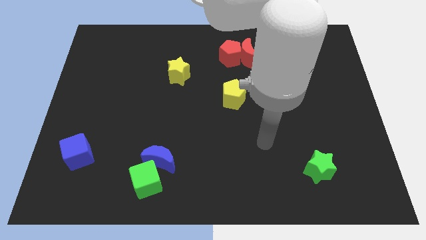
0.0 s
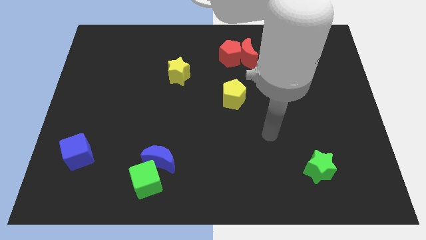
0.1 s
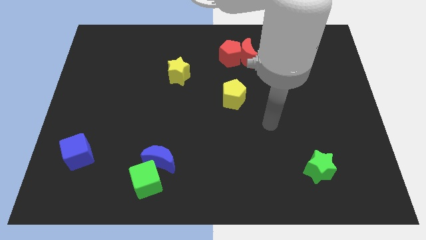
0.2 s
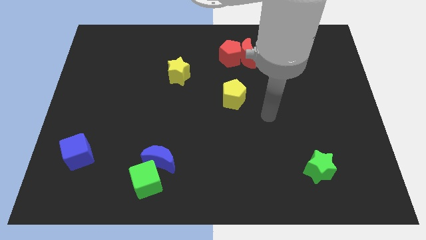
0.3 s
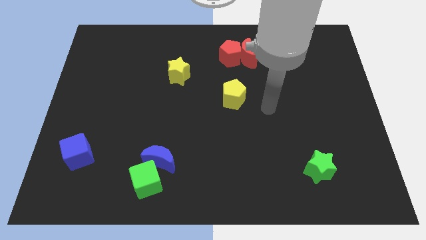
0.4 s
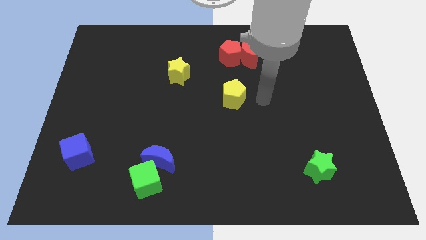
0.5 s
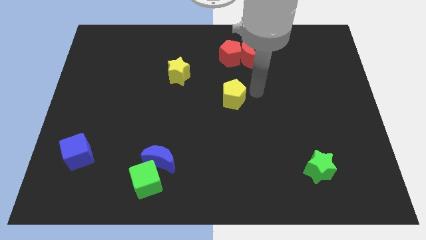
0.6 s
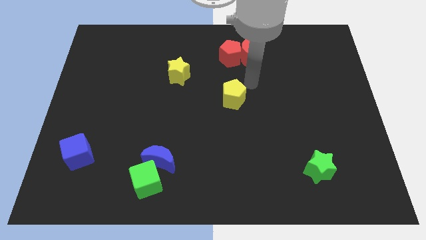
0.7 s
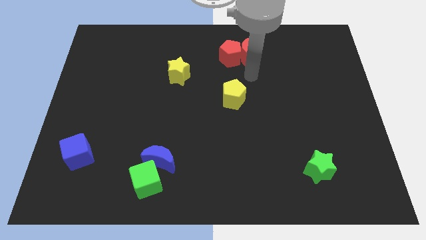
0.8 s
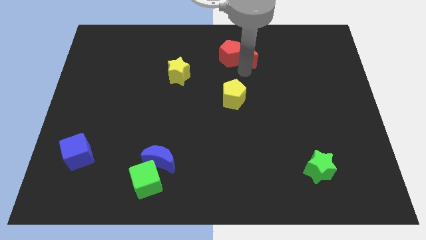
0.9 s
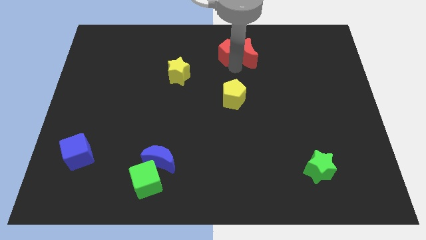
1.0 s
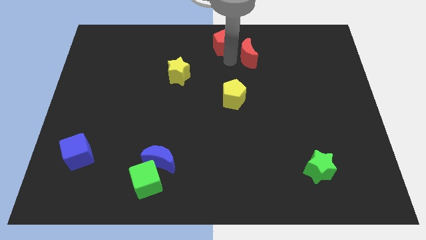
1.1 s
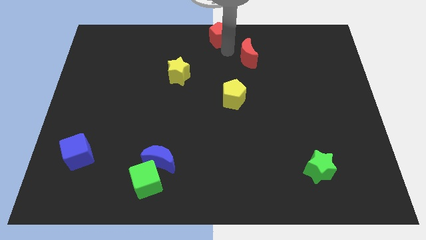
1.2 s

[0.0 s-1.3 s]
pull the red moon apart from the red pentagon

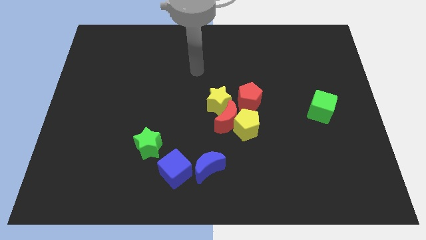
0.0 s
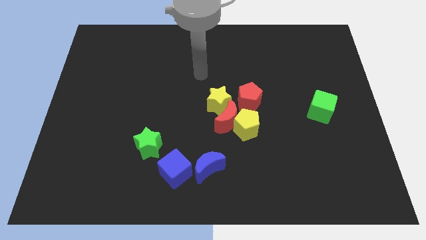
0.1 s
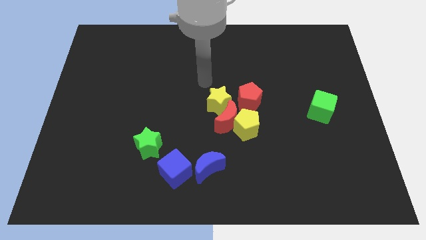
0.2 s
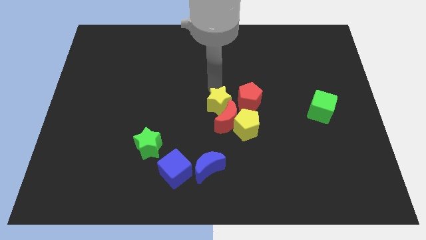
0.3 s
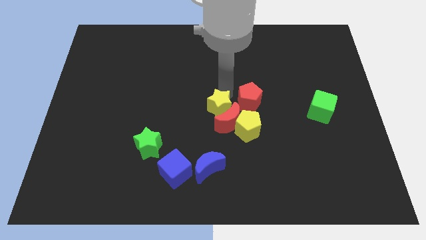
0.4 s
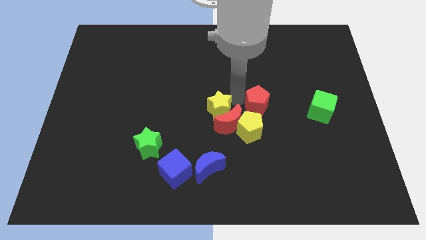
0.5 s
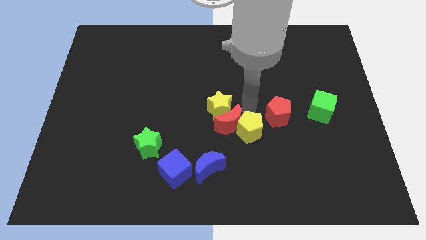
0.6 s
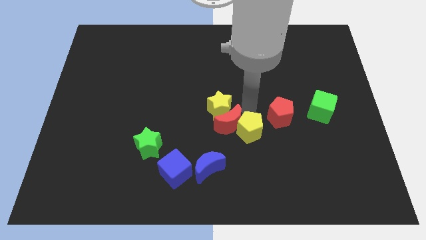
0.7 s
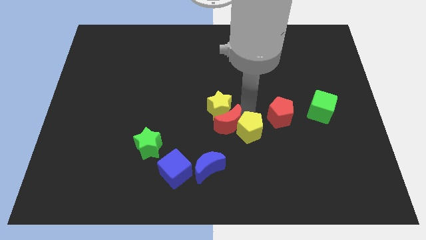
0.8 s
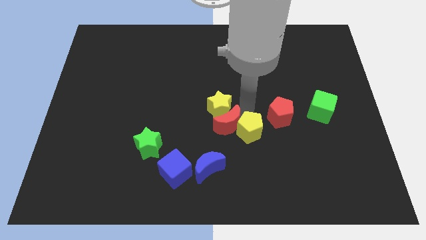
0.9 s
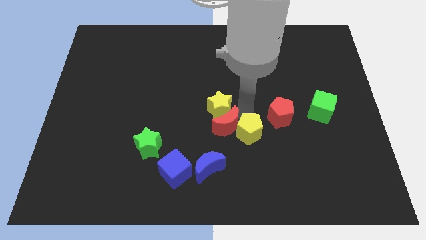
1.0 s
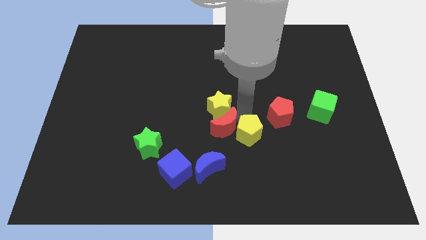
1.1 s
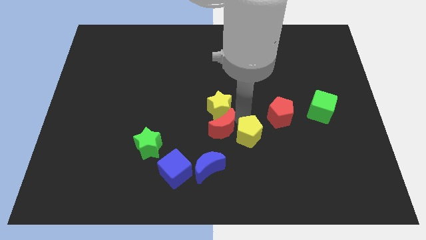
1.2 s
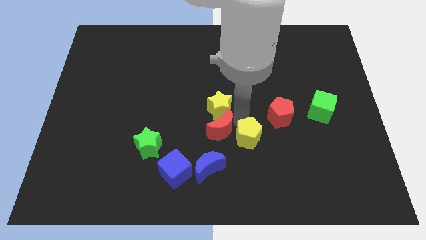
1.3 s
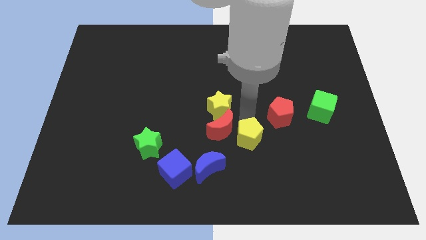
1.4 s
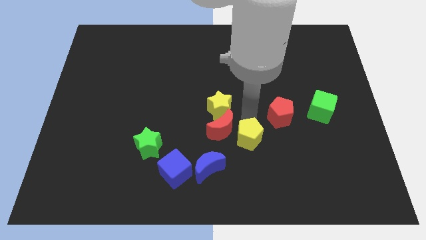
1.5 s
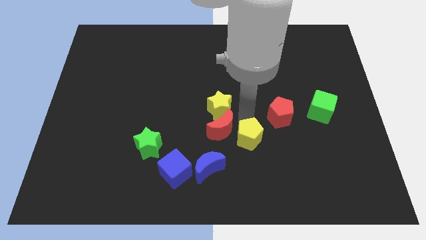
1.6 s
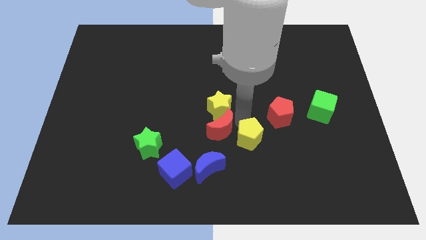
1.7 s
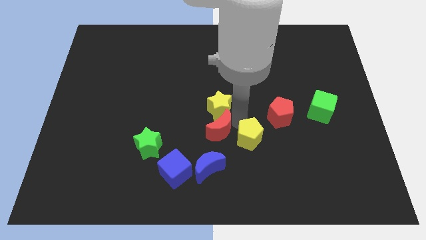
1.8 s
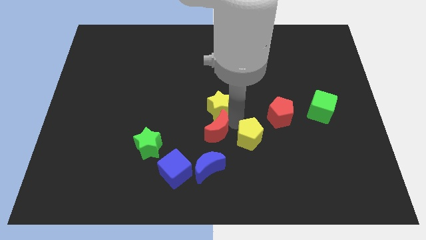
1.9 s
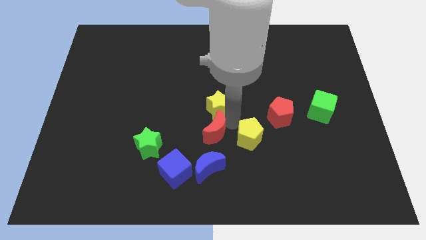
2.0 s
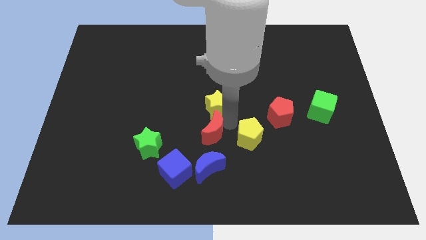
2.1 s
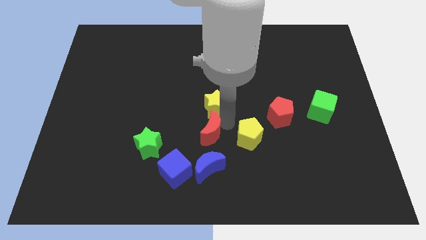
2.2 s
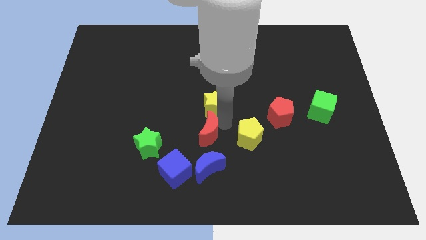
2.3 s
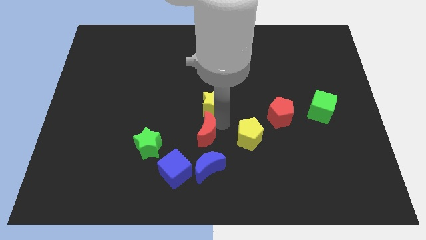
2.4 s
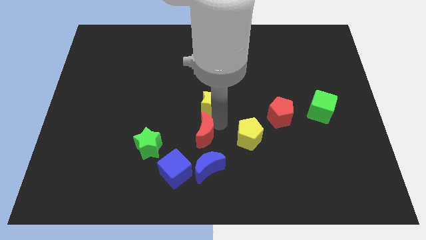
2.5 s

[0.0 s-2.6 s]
pull the red moon apart from the yellow pentagon, yellow star, and red pentagon

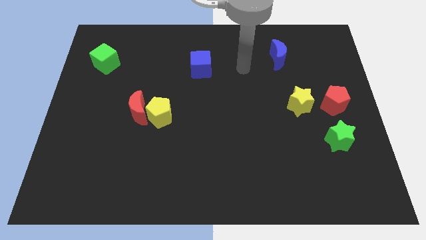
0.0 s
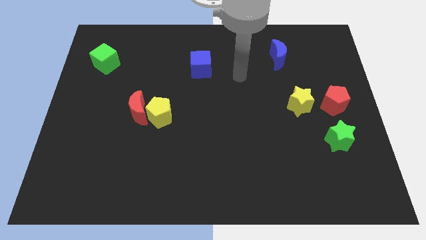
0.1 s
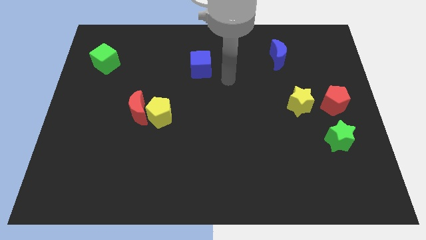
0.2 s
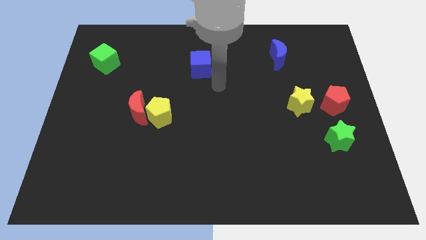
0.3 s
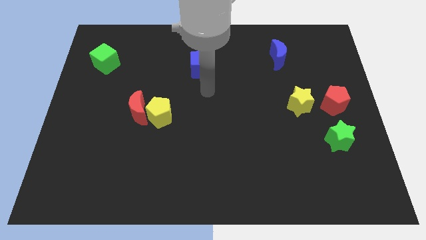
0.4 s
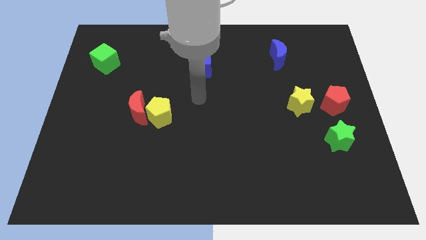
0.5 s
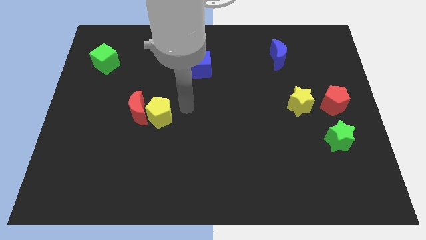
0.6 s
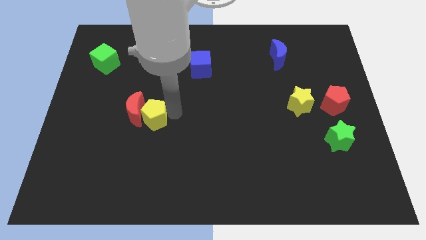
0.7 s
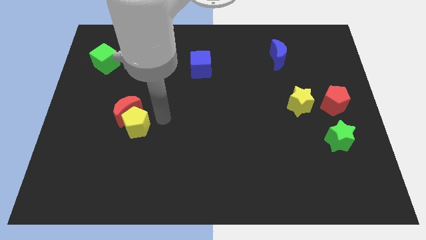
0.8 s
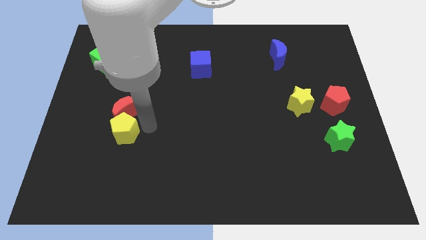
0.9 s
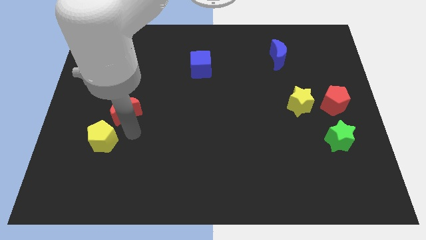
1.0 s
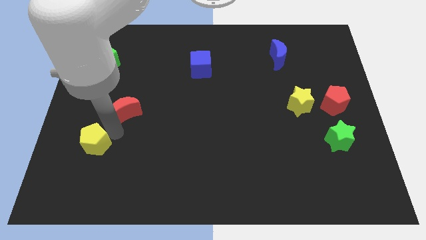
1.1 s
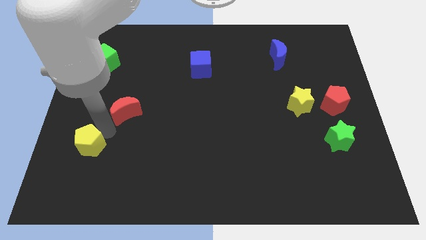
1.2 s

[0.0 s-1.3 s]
separate the red moon from the yellow pentagon

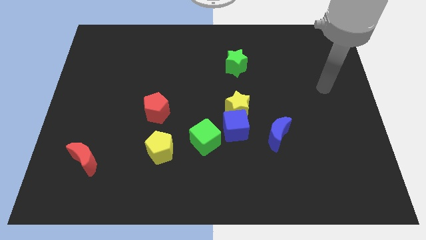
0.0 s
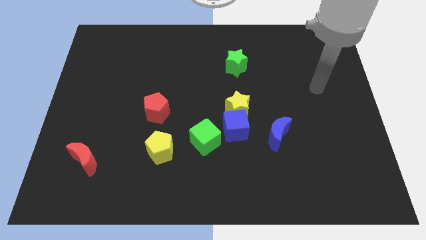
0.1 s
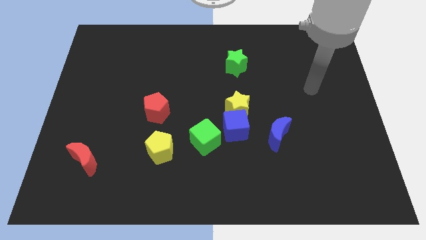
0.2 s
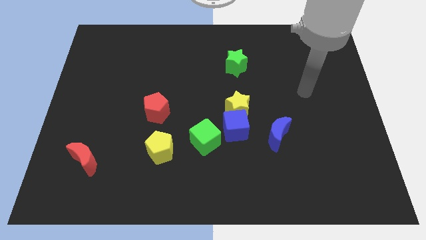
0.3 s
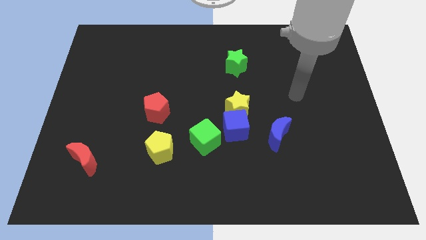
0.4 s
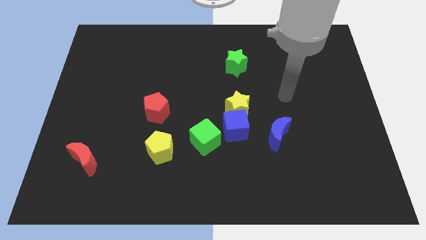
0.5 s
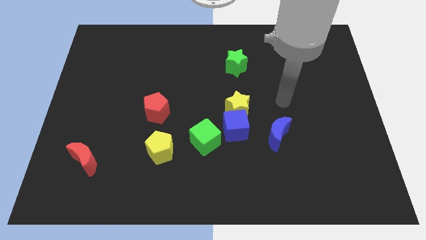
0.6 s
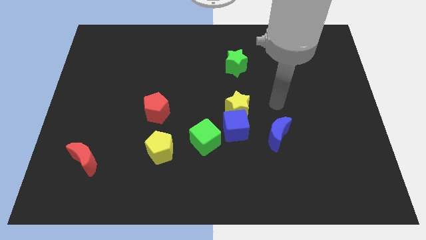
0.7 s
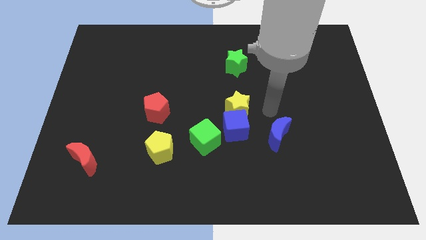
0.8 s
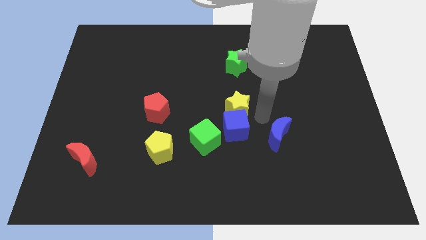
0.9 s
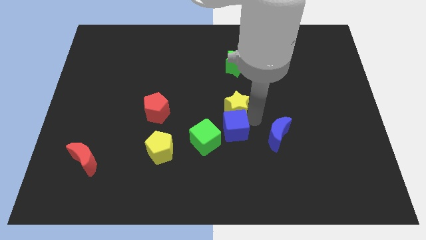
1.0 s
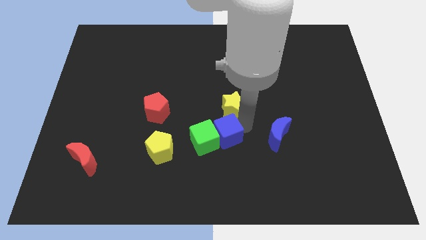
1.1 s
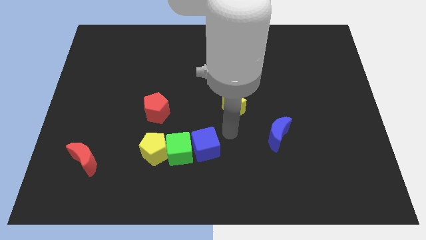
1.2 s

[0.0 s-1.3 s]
separate the yellow star from the blue cube

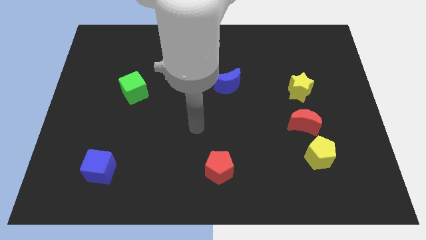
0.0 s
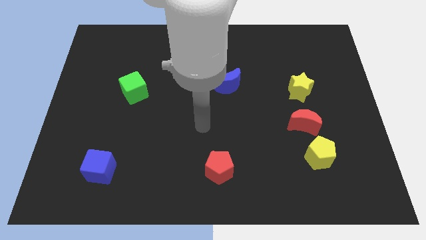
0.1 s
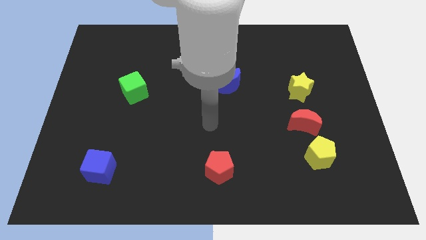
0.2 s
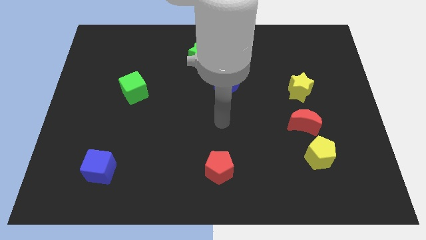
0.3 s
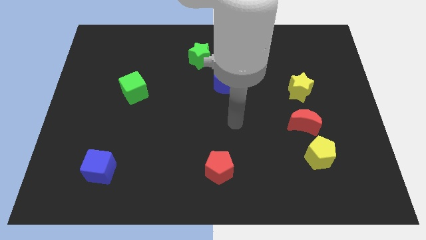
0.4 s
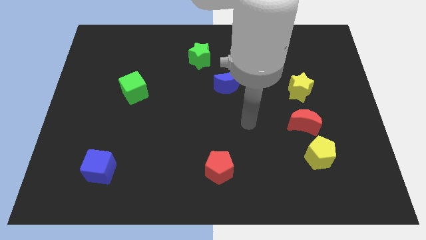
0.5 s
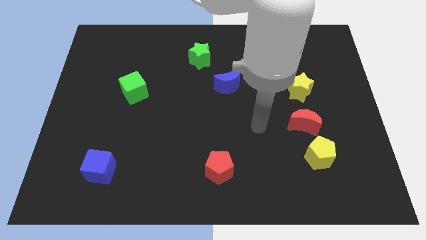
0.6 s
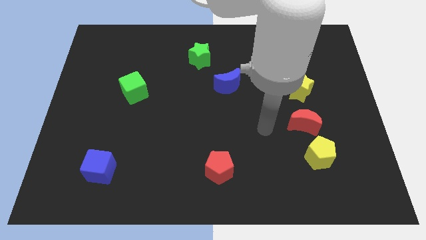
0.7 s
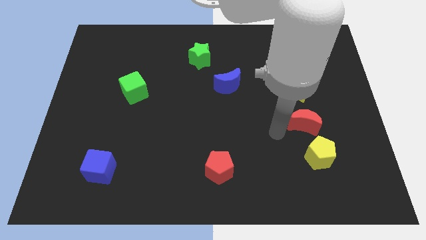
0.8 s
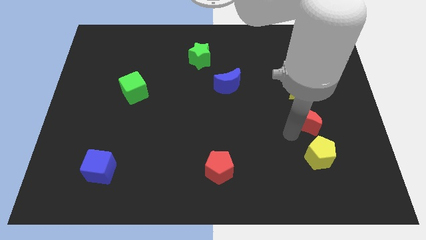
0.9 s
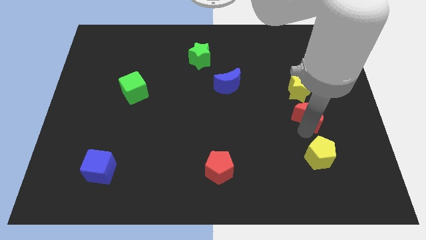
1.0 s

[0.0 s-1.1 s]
pull the yellow pentagon apart from the red moon

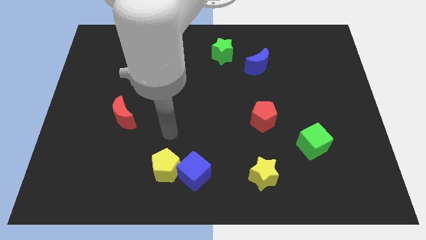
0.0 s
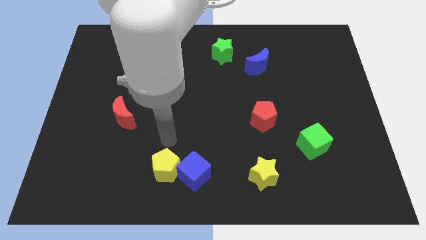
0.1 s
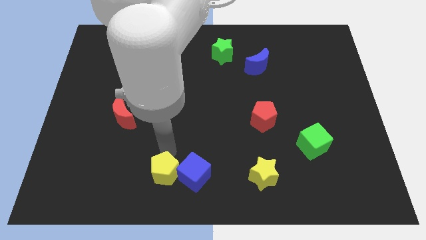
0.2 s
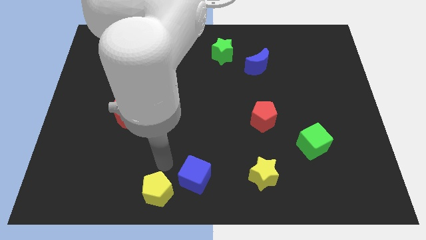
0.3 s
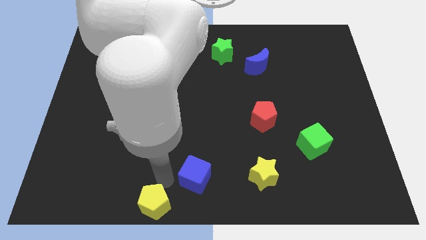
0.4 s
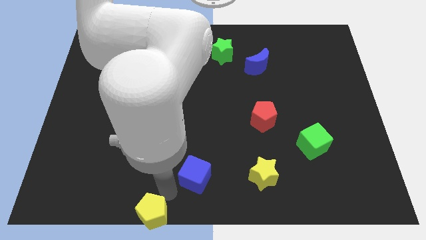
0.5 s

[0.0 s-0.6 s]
pull the blue cube apart from the yellow pentagon

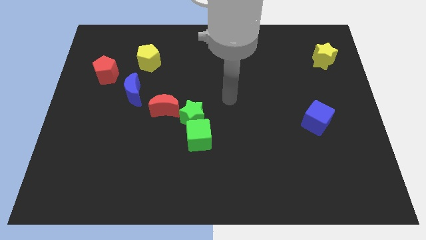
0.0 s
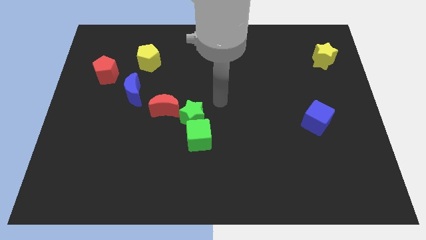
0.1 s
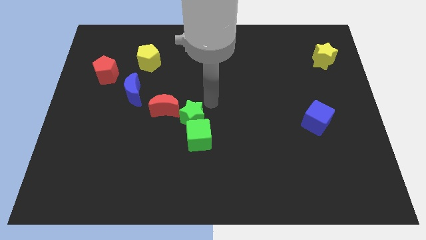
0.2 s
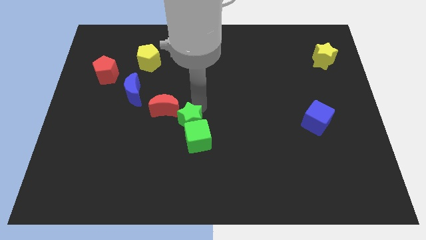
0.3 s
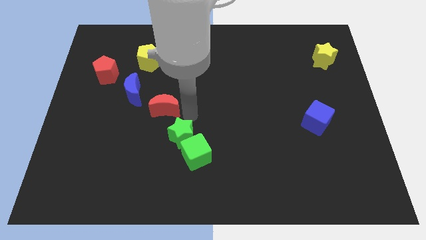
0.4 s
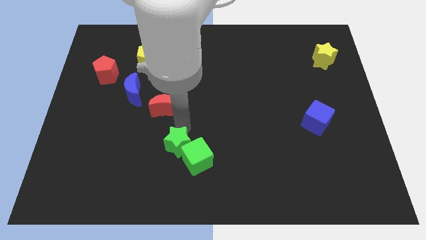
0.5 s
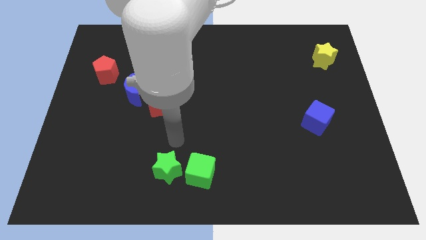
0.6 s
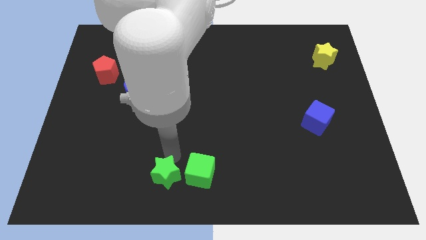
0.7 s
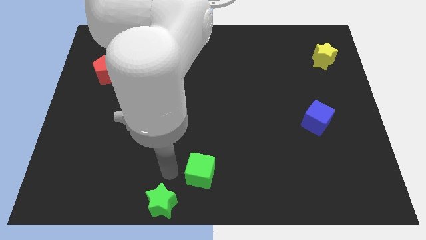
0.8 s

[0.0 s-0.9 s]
separate the green cube from the green star

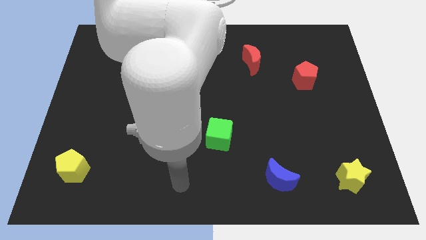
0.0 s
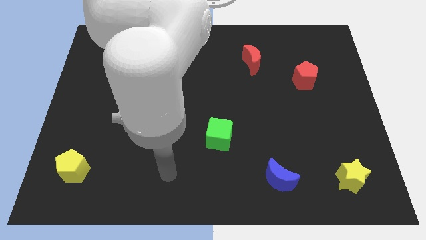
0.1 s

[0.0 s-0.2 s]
pull the blue cube apart from the green star
